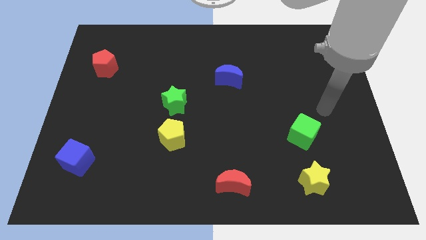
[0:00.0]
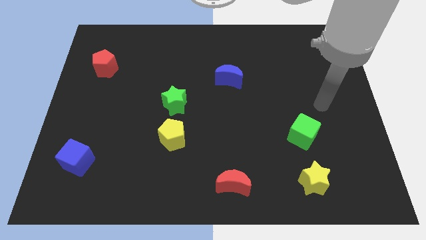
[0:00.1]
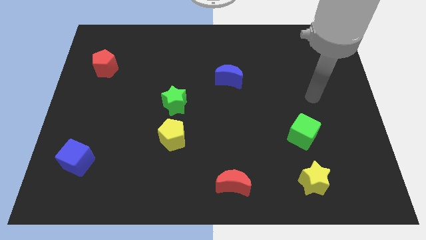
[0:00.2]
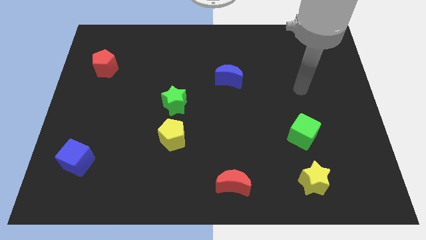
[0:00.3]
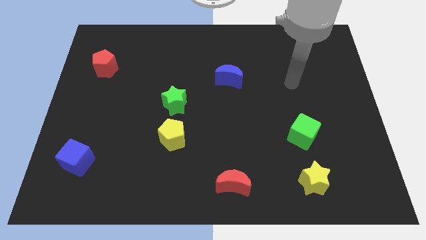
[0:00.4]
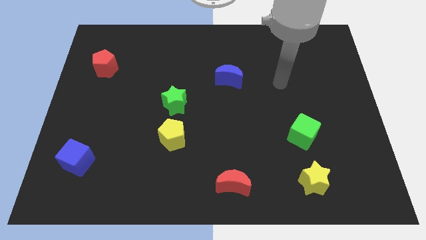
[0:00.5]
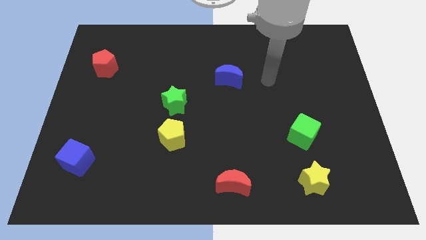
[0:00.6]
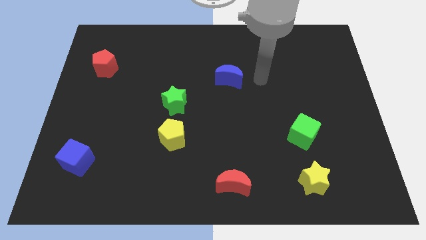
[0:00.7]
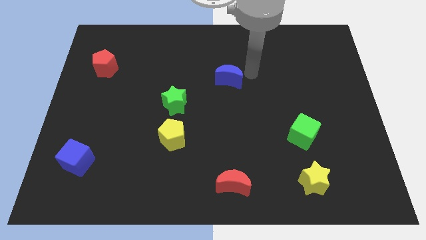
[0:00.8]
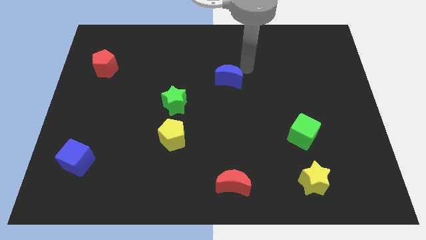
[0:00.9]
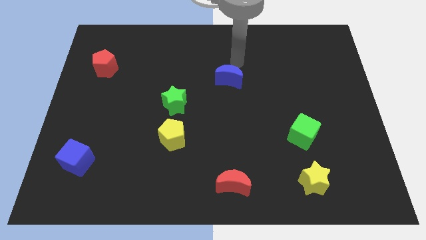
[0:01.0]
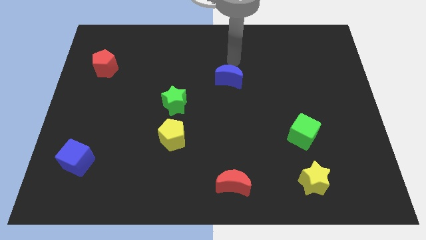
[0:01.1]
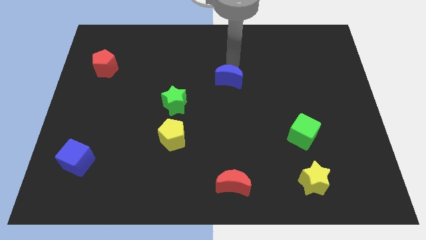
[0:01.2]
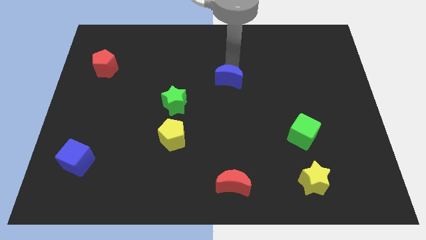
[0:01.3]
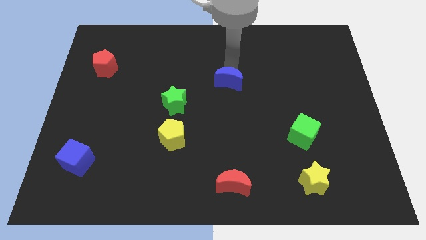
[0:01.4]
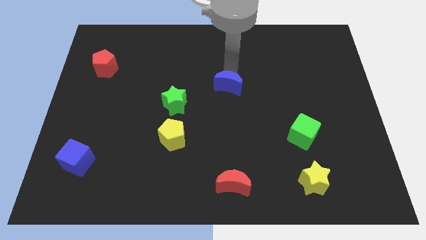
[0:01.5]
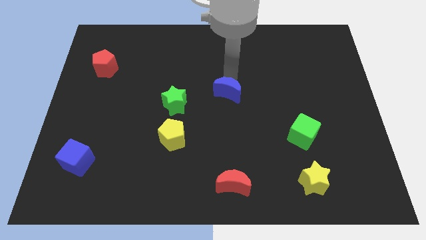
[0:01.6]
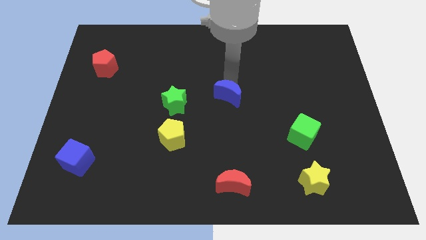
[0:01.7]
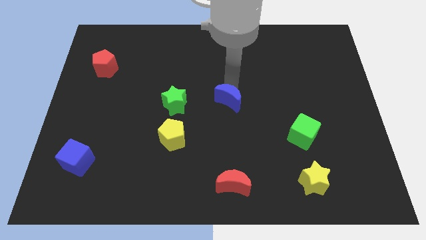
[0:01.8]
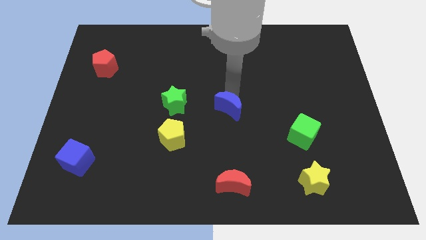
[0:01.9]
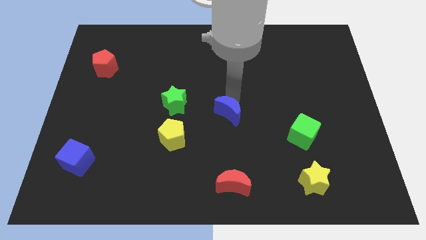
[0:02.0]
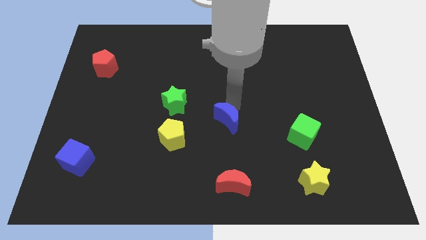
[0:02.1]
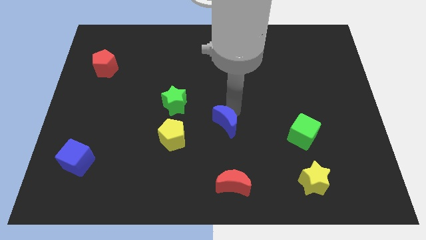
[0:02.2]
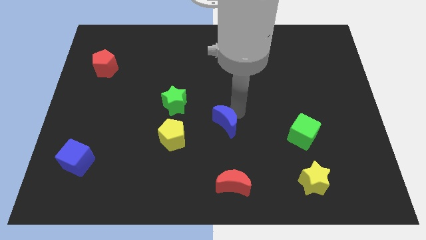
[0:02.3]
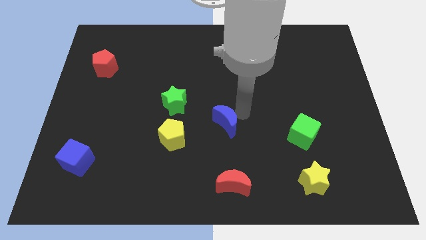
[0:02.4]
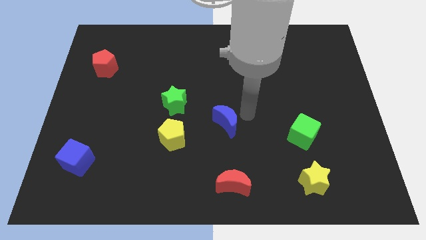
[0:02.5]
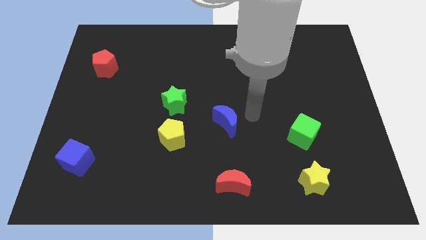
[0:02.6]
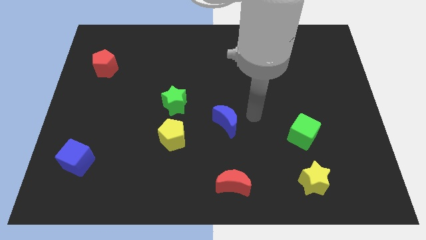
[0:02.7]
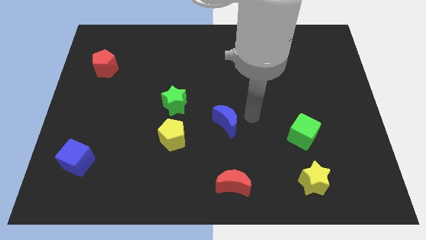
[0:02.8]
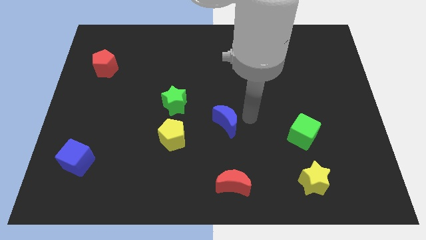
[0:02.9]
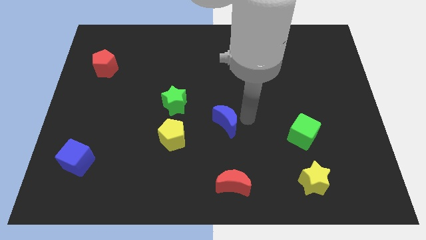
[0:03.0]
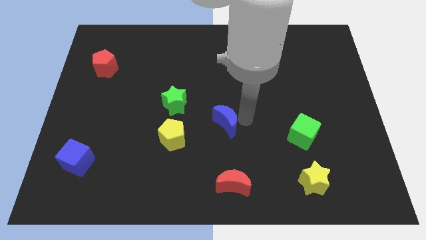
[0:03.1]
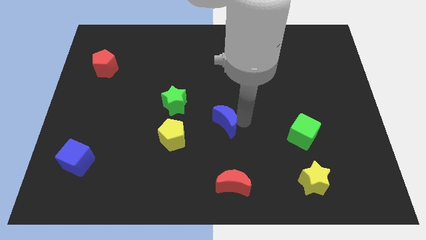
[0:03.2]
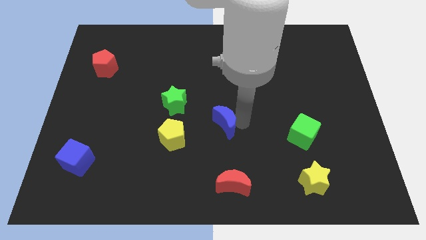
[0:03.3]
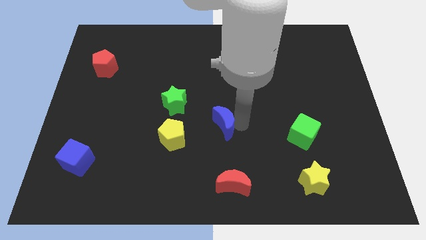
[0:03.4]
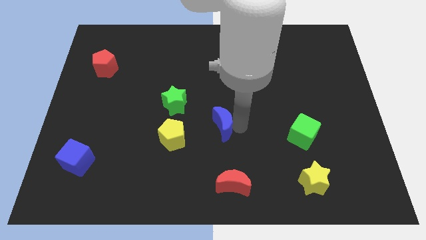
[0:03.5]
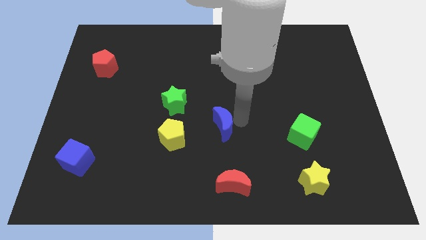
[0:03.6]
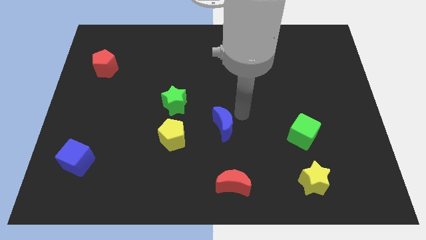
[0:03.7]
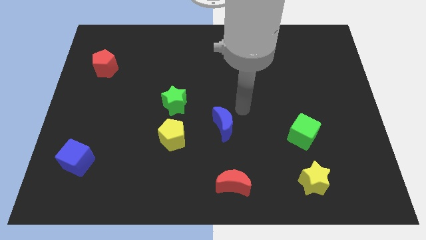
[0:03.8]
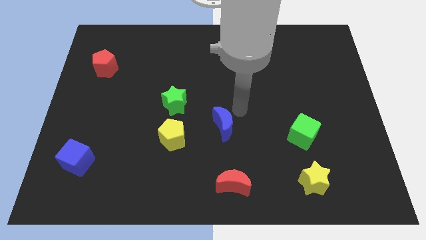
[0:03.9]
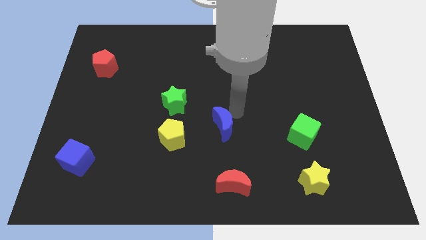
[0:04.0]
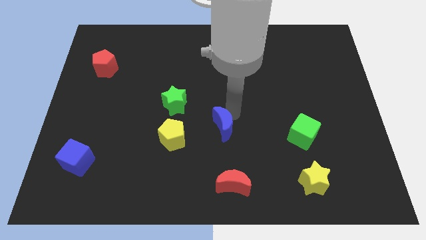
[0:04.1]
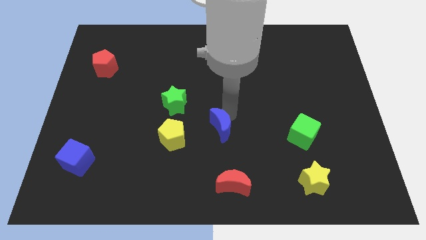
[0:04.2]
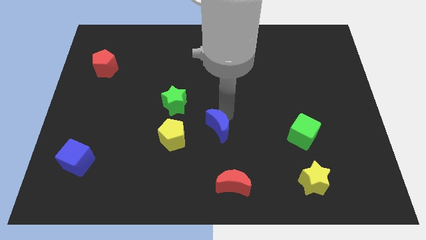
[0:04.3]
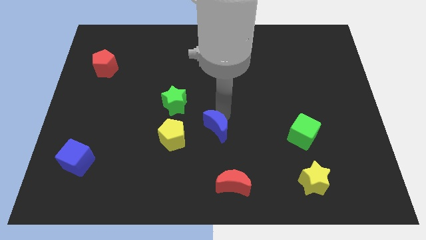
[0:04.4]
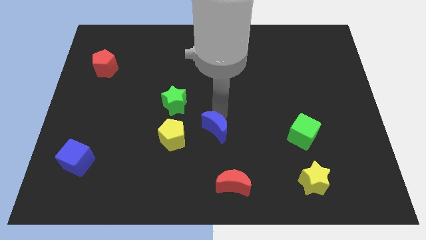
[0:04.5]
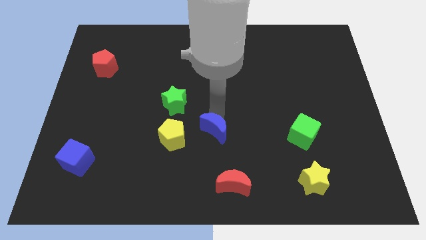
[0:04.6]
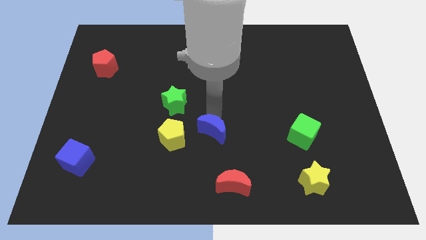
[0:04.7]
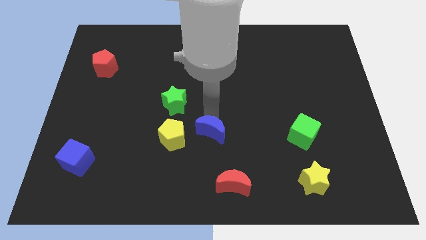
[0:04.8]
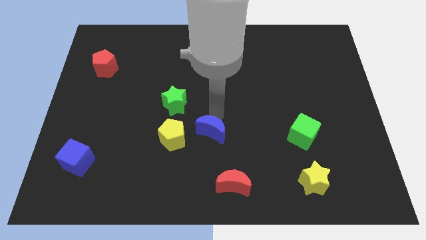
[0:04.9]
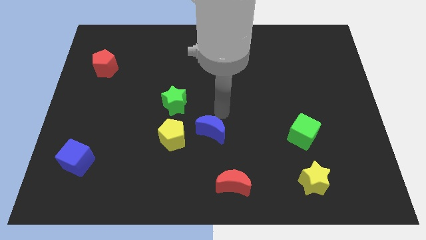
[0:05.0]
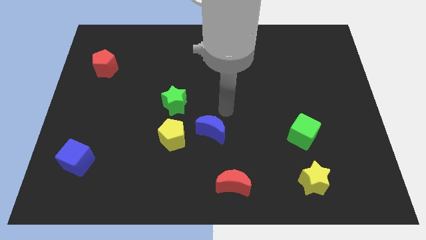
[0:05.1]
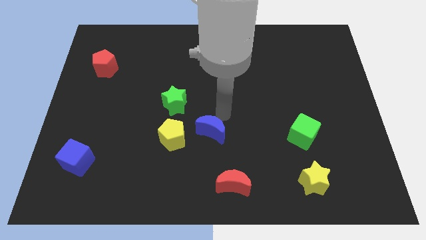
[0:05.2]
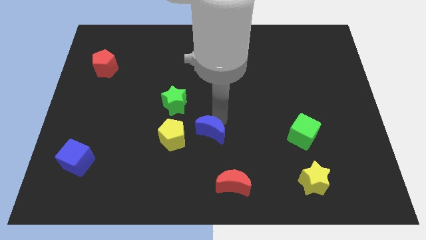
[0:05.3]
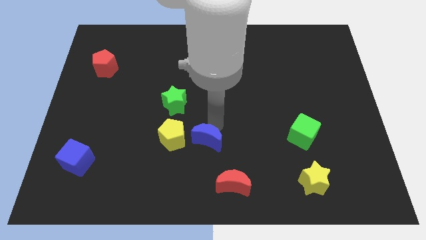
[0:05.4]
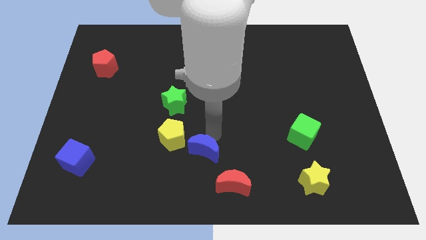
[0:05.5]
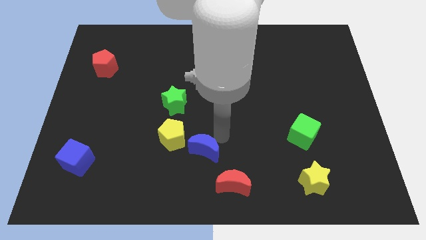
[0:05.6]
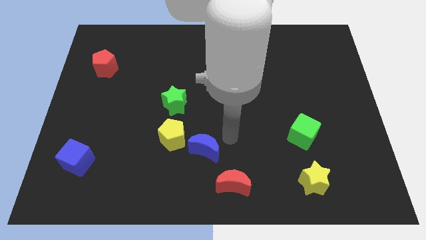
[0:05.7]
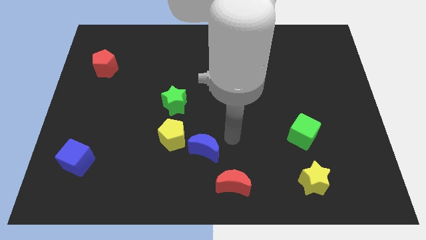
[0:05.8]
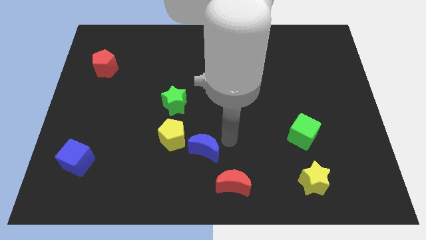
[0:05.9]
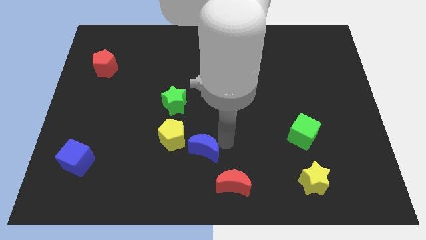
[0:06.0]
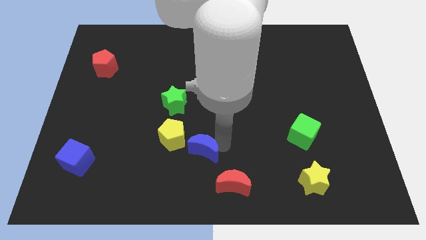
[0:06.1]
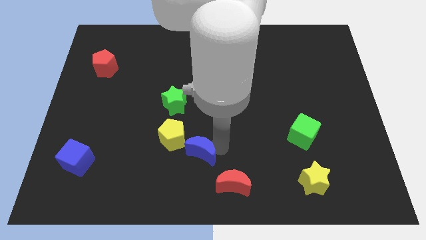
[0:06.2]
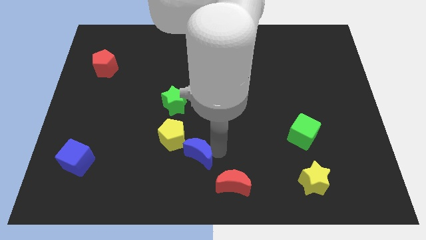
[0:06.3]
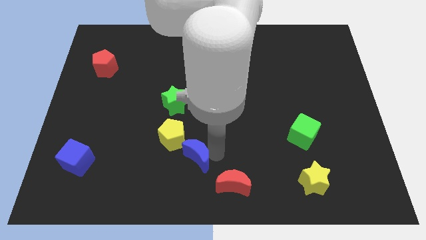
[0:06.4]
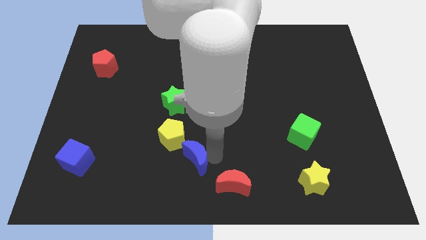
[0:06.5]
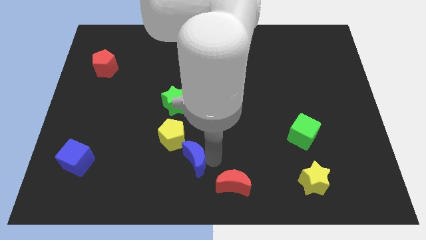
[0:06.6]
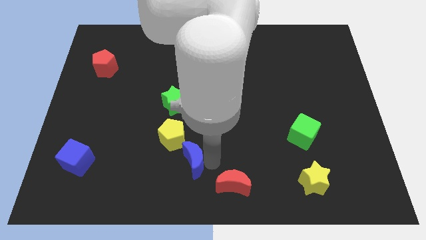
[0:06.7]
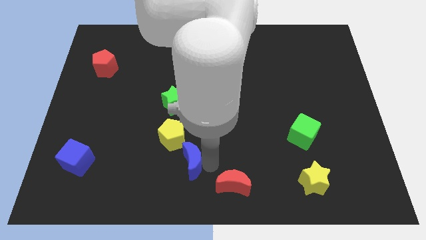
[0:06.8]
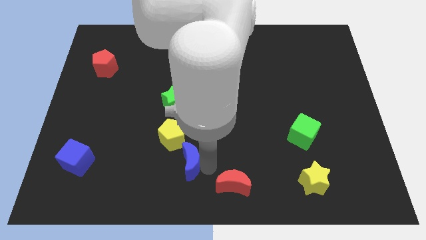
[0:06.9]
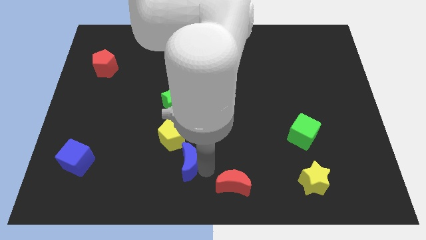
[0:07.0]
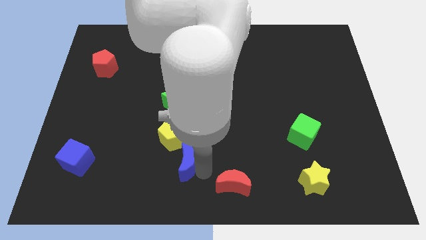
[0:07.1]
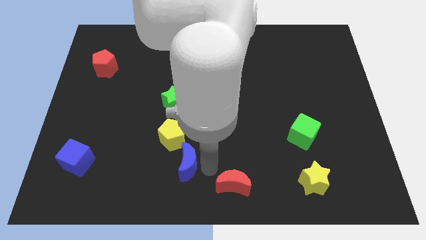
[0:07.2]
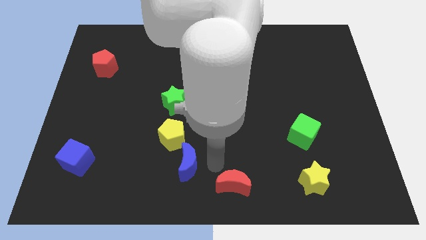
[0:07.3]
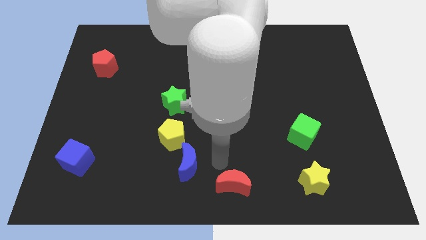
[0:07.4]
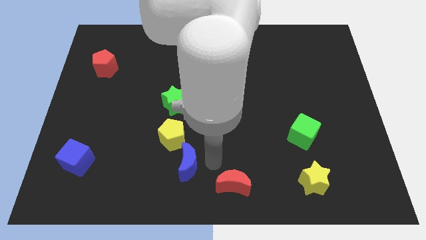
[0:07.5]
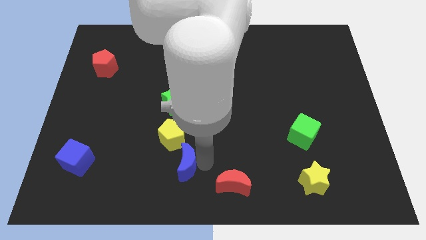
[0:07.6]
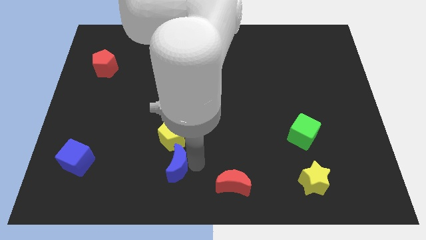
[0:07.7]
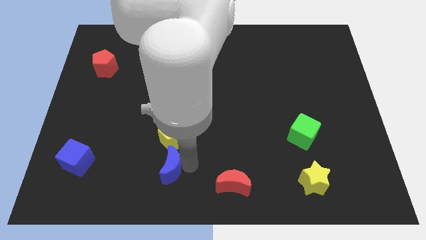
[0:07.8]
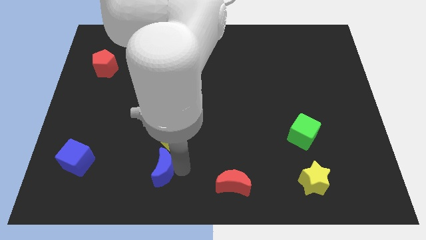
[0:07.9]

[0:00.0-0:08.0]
push the blue moon diagonally down and to the left of the yellow pentagon
